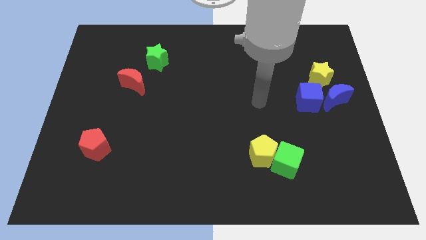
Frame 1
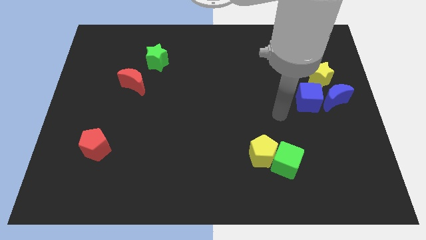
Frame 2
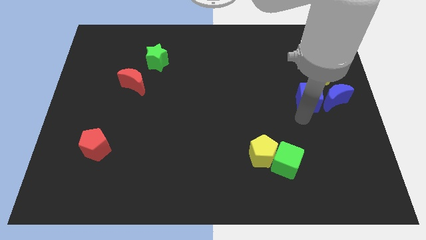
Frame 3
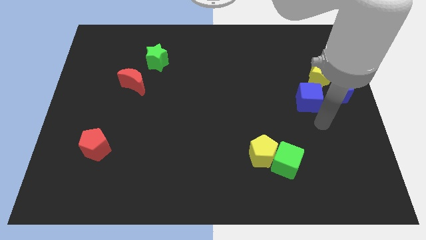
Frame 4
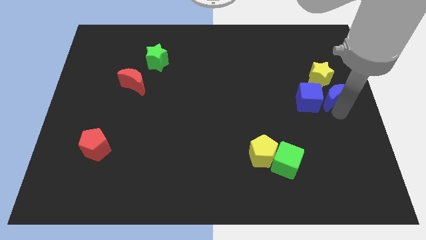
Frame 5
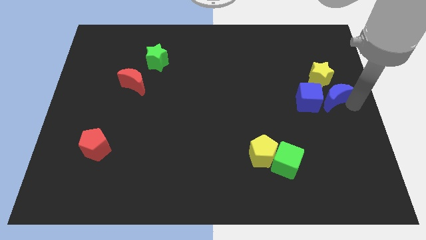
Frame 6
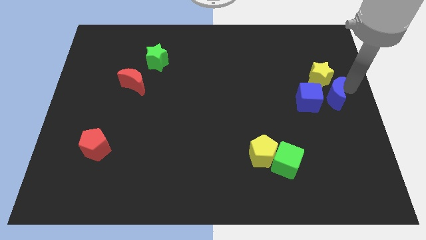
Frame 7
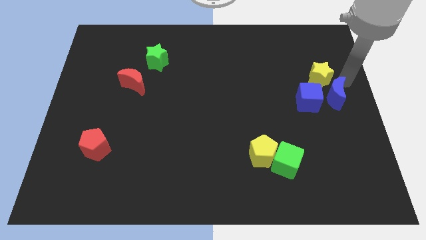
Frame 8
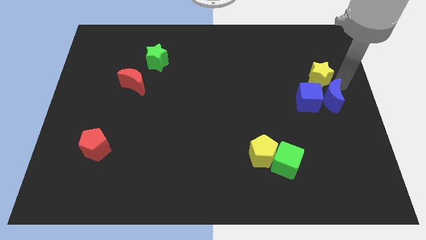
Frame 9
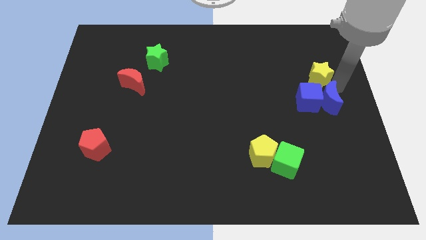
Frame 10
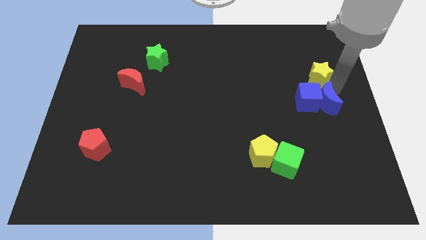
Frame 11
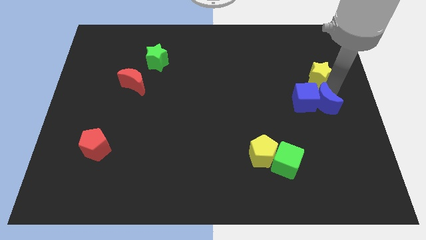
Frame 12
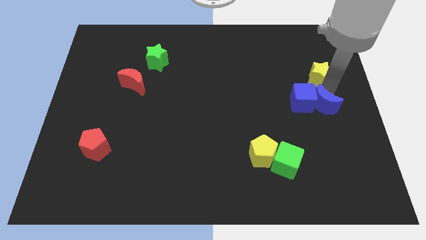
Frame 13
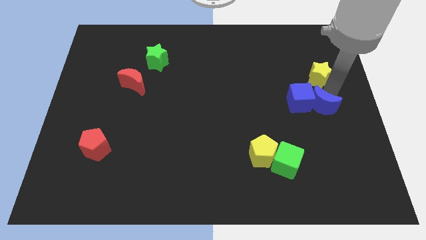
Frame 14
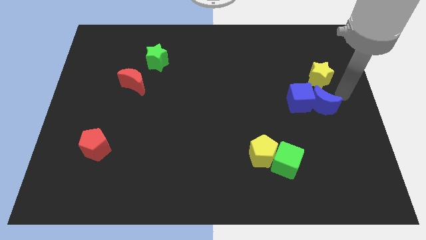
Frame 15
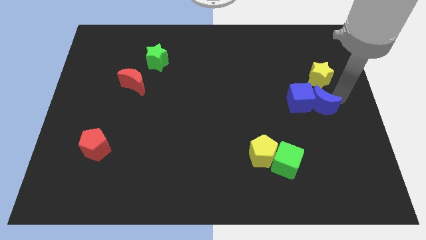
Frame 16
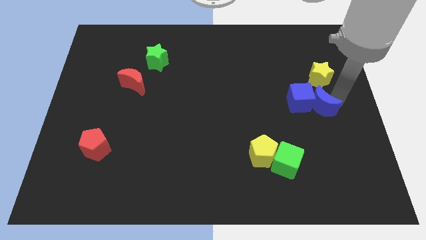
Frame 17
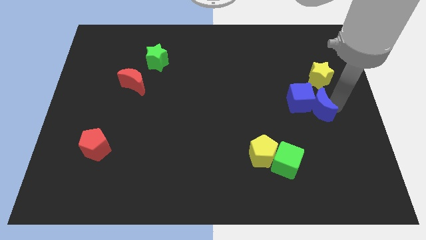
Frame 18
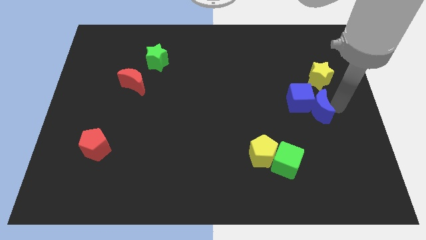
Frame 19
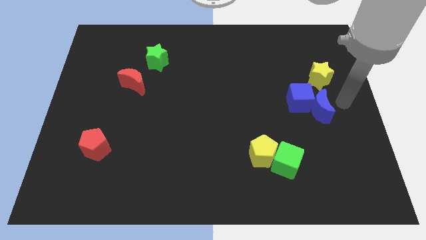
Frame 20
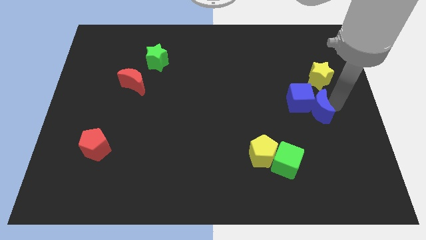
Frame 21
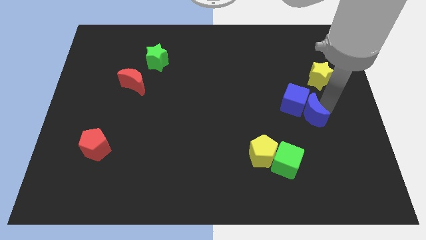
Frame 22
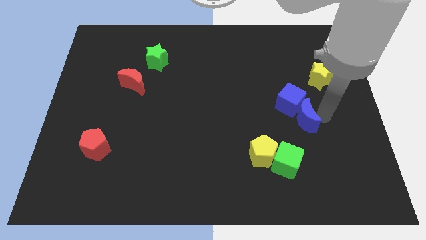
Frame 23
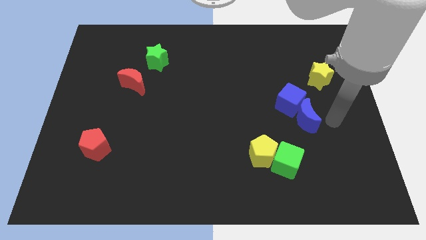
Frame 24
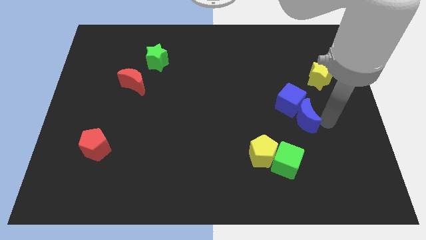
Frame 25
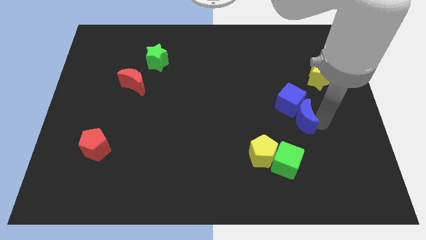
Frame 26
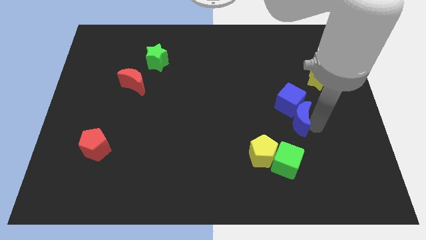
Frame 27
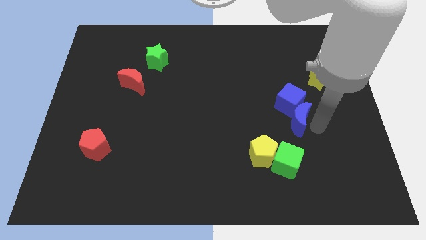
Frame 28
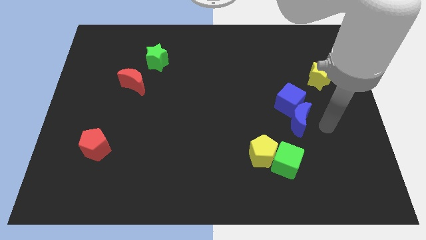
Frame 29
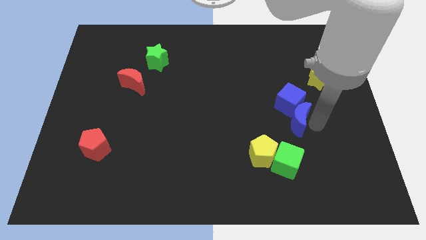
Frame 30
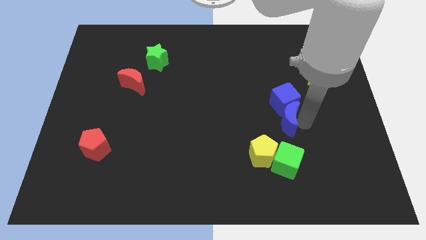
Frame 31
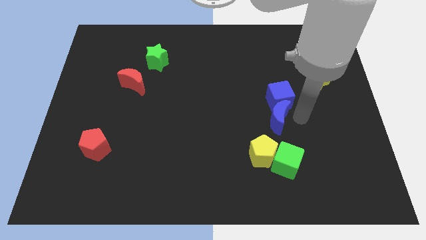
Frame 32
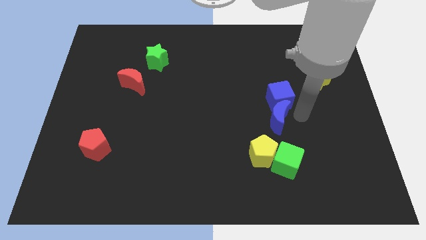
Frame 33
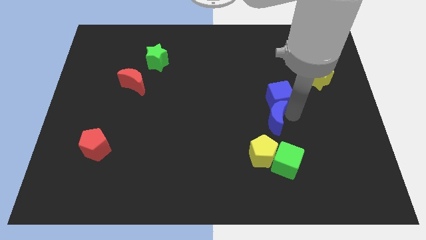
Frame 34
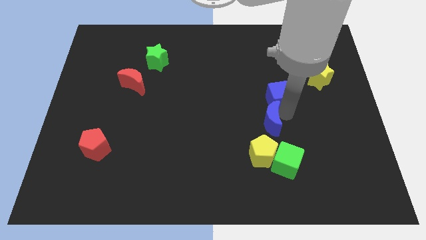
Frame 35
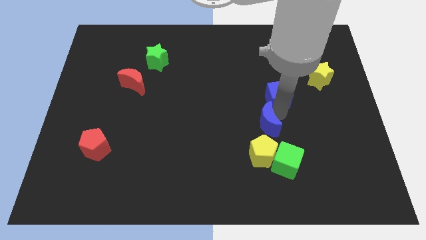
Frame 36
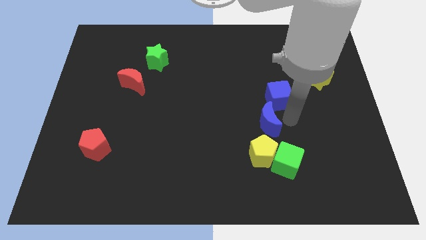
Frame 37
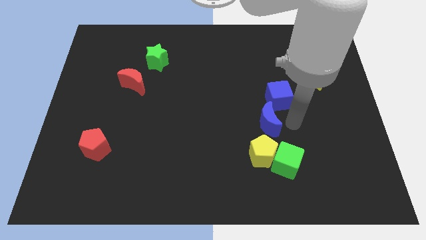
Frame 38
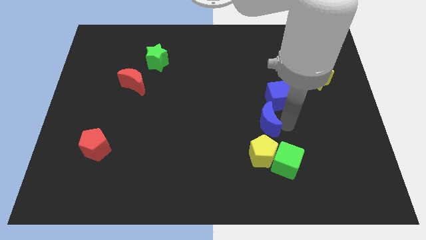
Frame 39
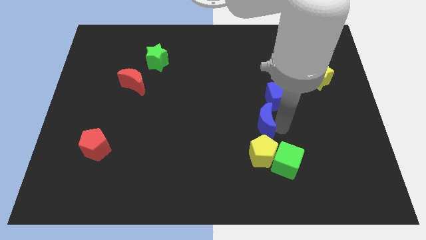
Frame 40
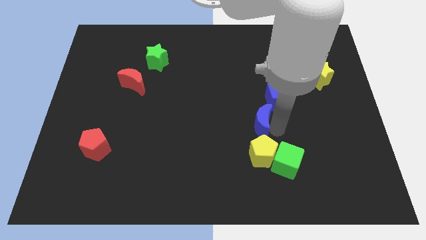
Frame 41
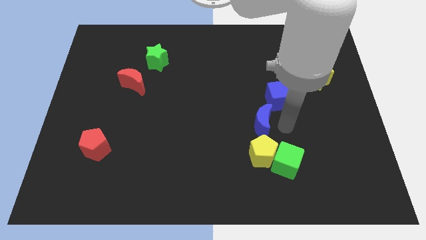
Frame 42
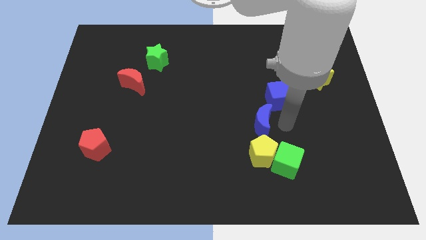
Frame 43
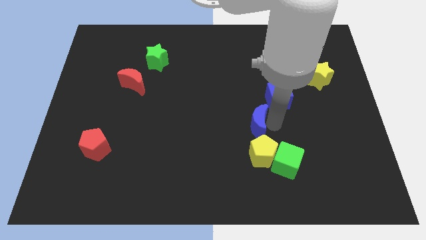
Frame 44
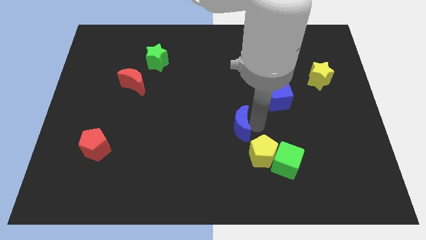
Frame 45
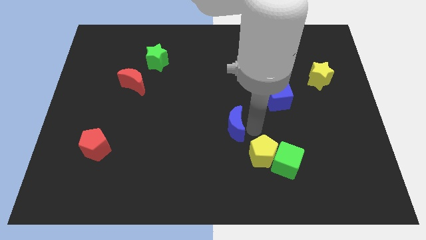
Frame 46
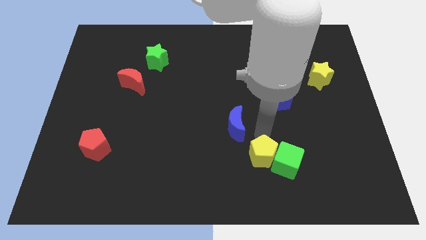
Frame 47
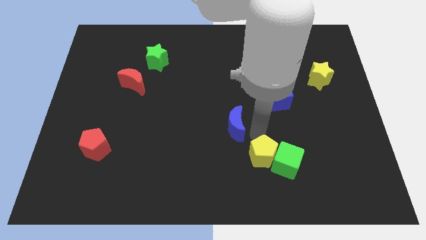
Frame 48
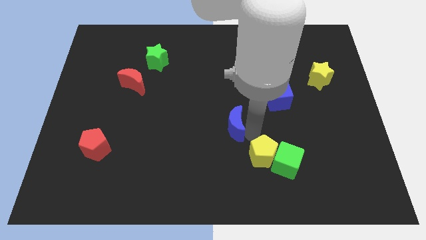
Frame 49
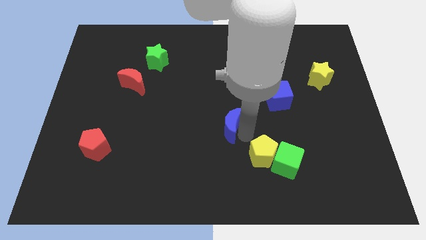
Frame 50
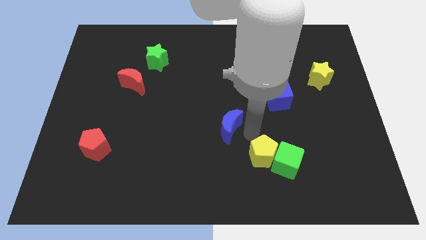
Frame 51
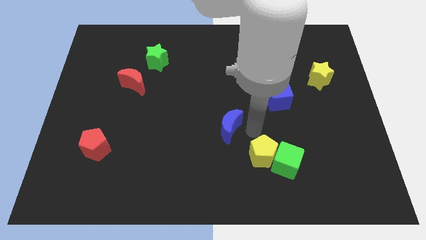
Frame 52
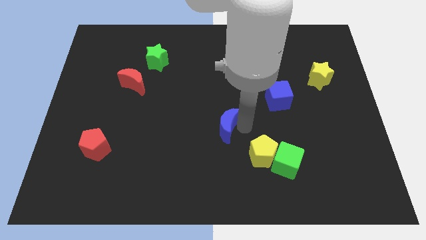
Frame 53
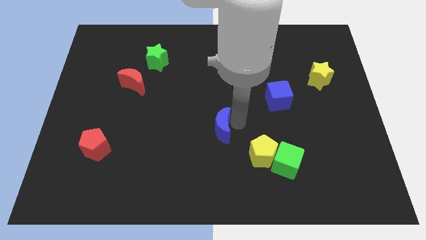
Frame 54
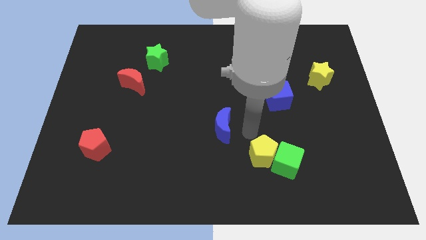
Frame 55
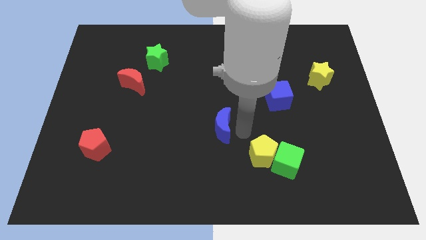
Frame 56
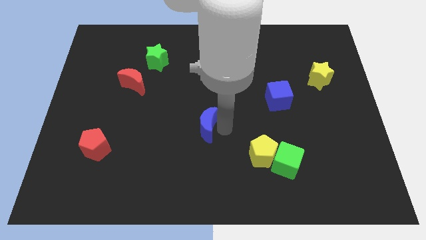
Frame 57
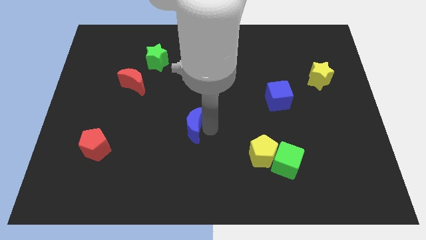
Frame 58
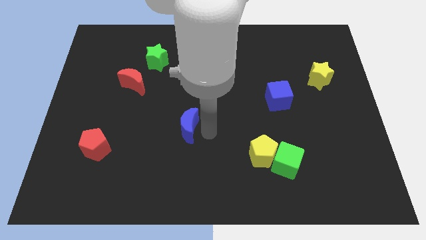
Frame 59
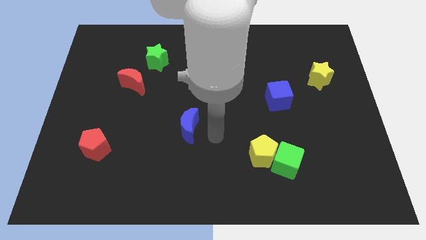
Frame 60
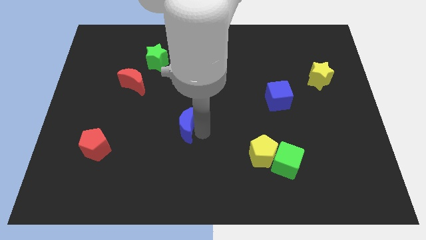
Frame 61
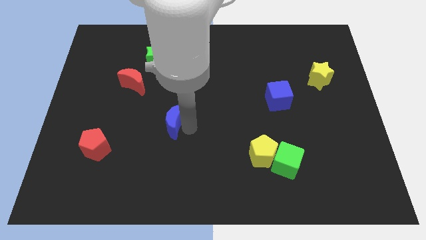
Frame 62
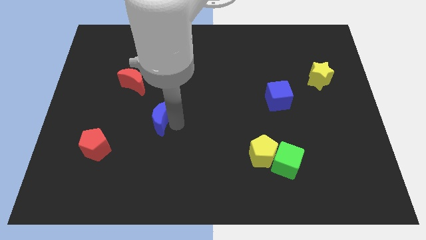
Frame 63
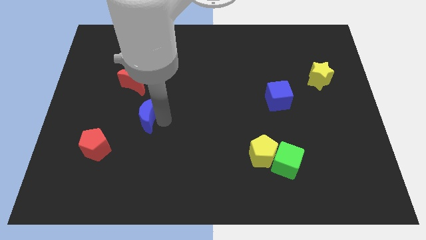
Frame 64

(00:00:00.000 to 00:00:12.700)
slide the blue moon to the bottom of the red moon

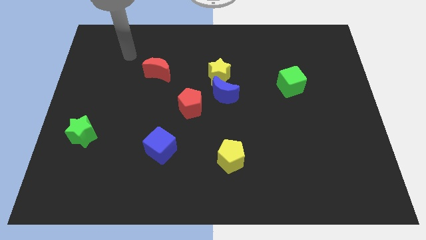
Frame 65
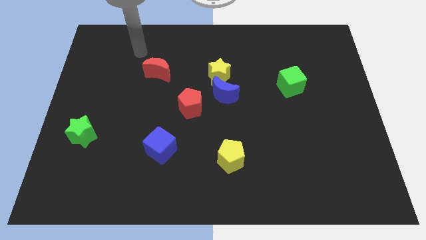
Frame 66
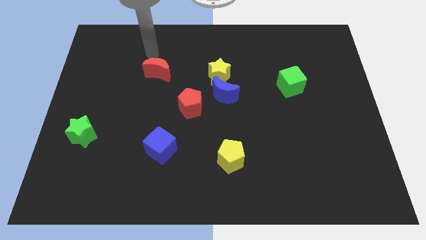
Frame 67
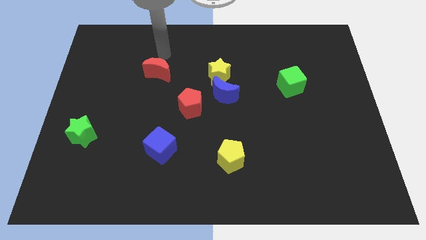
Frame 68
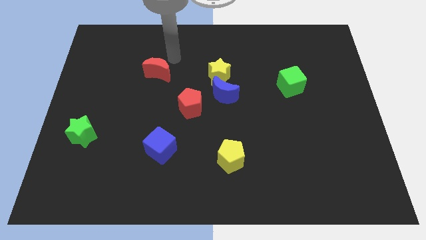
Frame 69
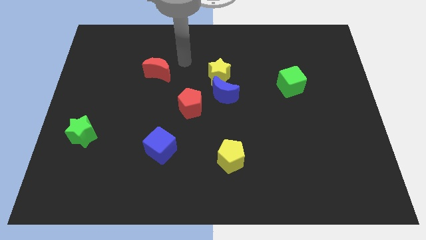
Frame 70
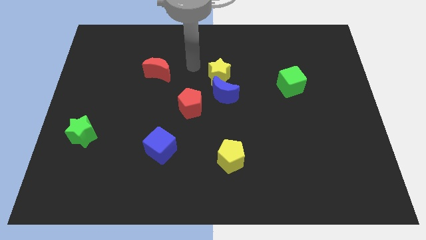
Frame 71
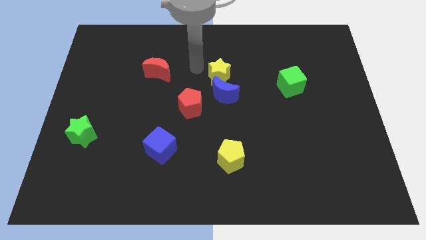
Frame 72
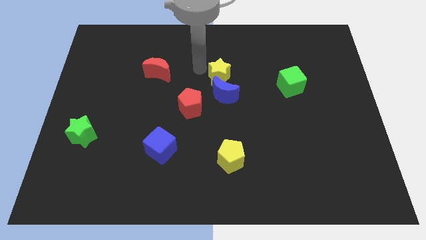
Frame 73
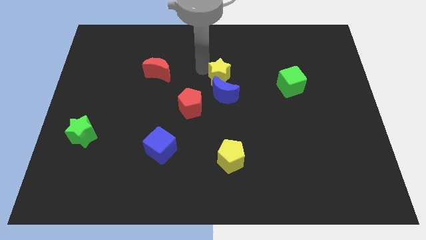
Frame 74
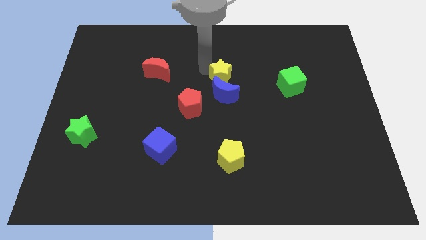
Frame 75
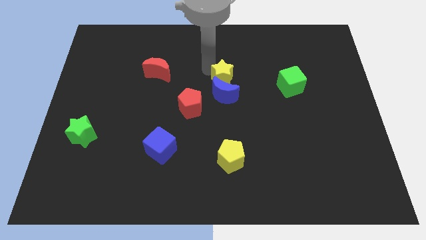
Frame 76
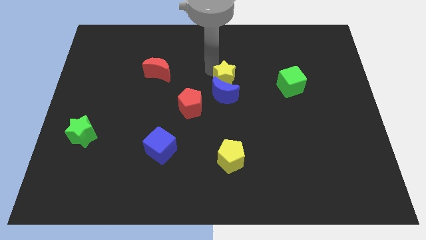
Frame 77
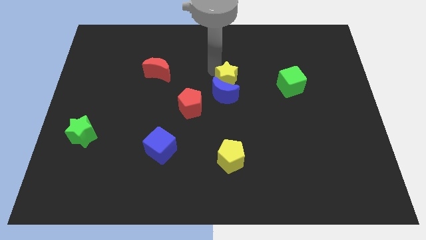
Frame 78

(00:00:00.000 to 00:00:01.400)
put the yellow star to the left side of the green cube
